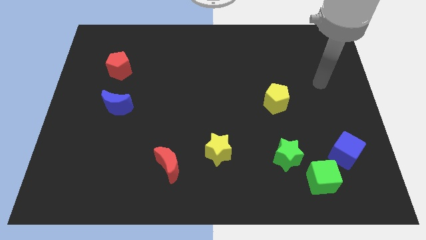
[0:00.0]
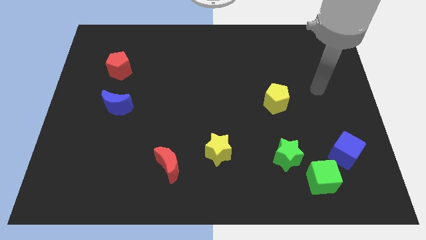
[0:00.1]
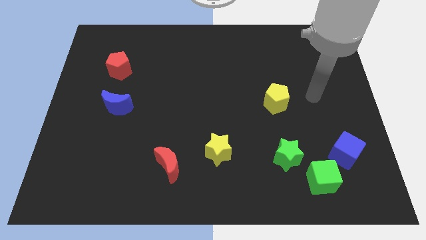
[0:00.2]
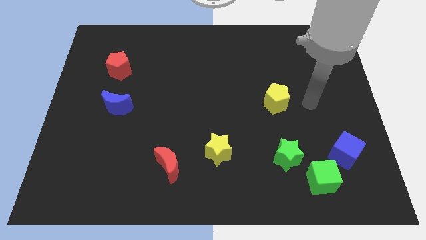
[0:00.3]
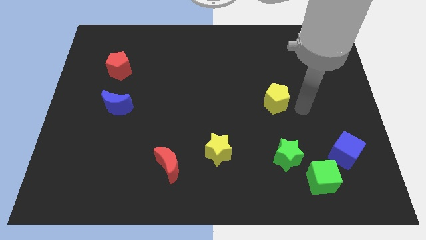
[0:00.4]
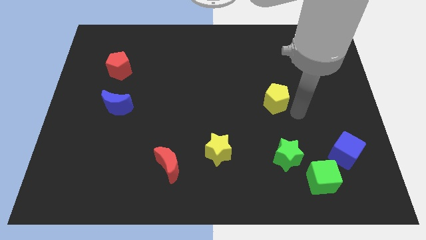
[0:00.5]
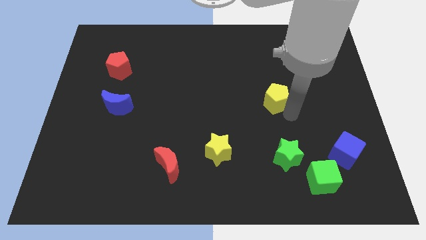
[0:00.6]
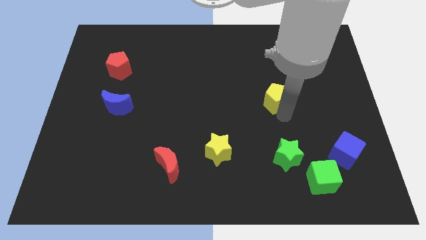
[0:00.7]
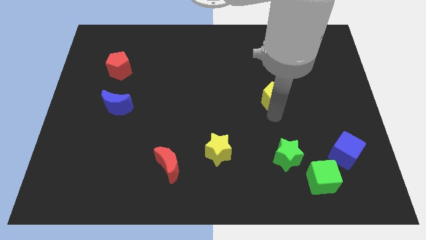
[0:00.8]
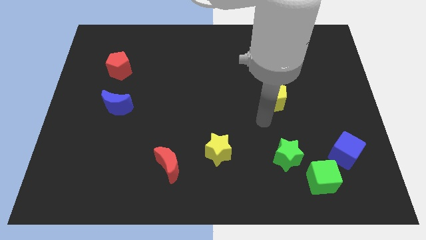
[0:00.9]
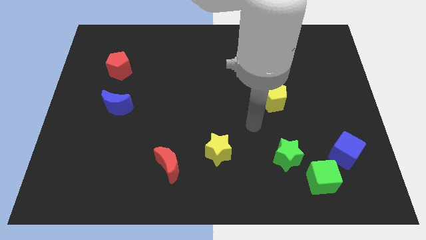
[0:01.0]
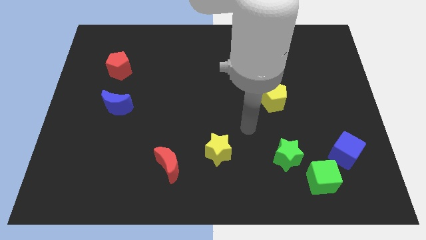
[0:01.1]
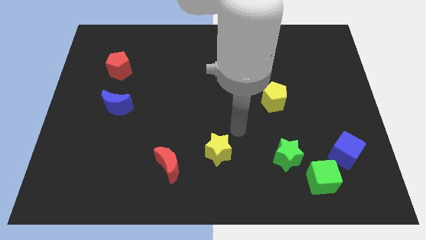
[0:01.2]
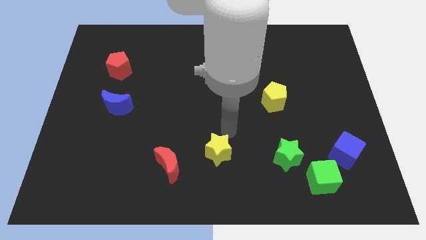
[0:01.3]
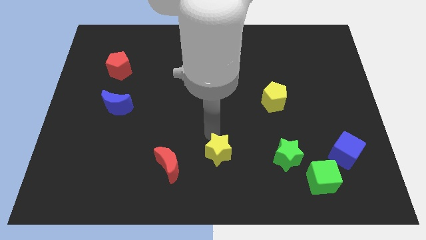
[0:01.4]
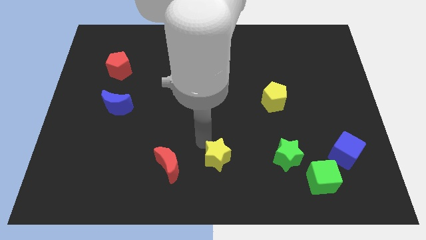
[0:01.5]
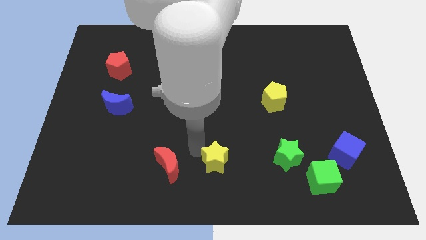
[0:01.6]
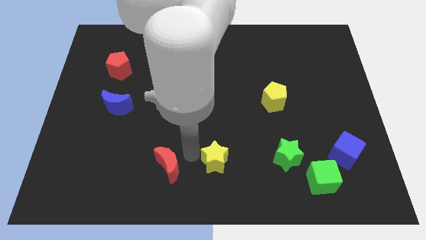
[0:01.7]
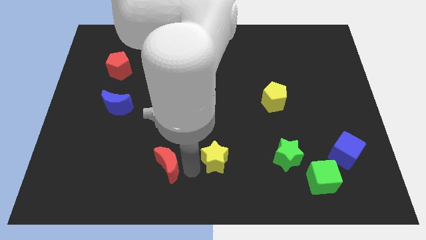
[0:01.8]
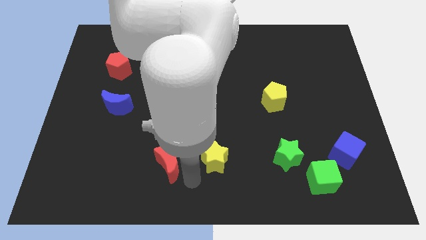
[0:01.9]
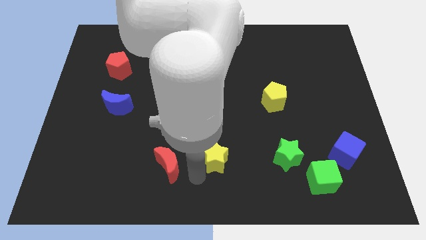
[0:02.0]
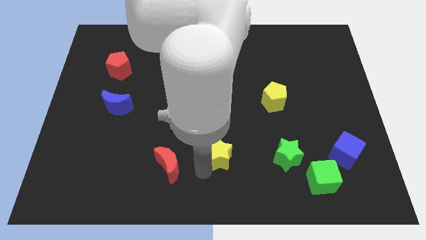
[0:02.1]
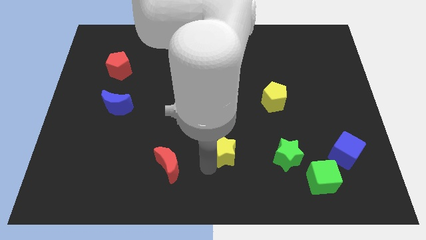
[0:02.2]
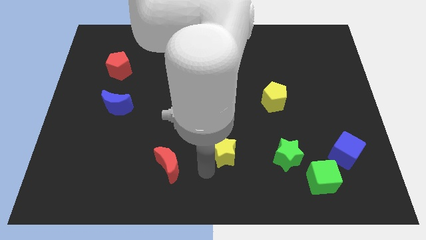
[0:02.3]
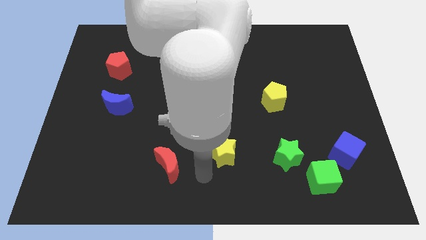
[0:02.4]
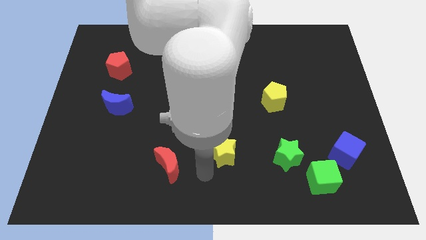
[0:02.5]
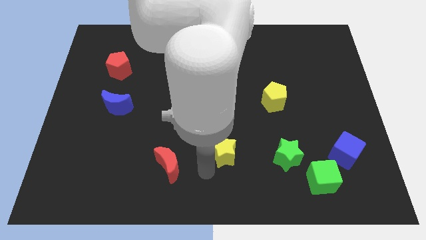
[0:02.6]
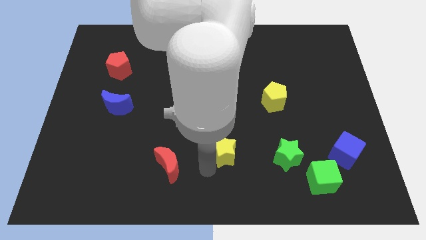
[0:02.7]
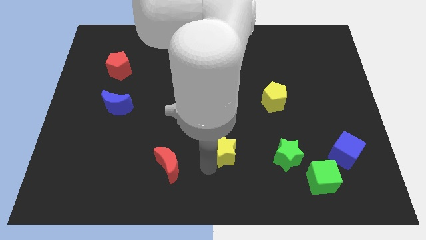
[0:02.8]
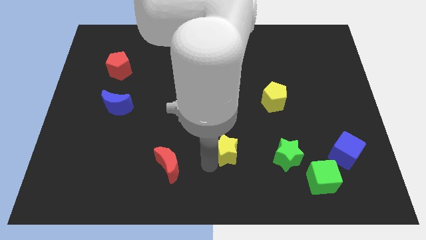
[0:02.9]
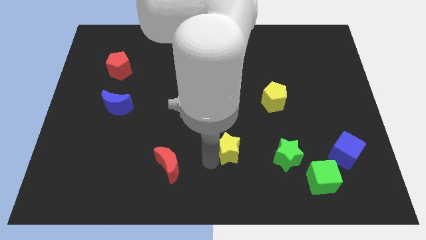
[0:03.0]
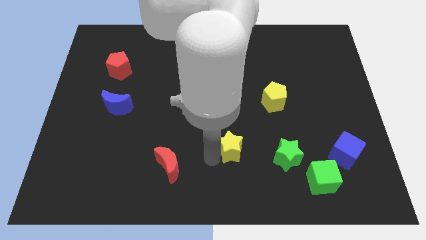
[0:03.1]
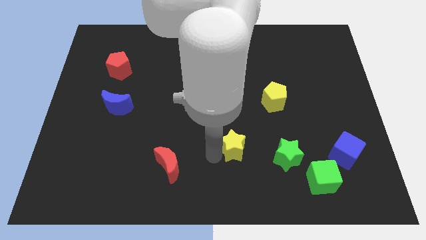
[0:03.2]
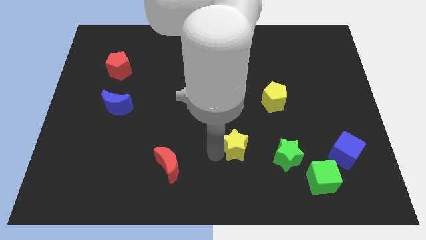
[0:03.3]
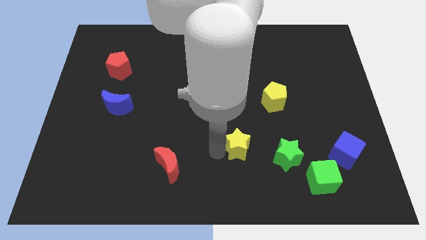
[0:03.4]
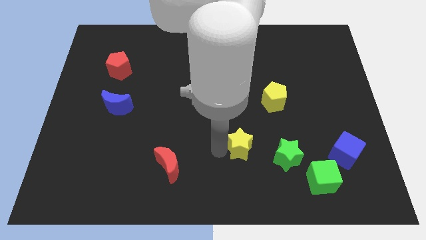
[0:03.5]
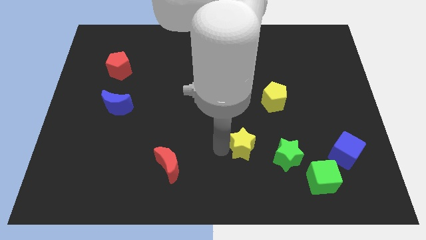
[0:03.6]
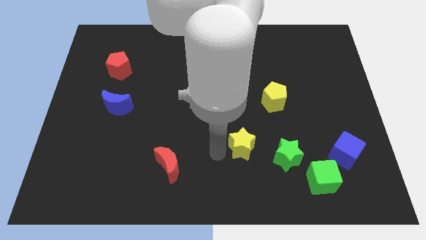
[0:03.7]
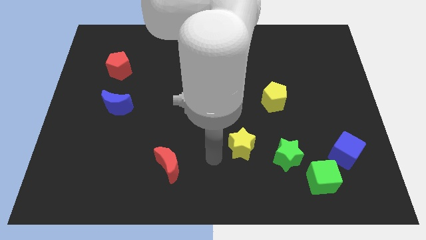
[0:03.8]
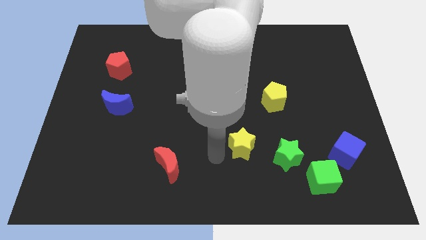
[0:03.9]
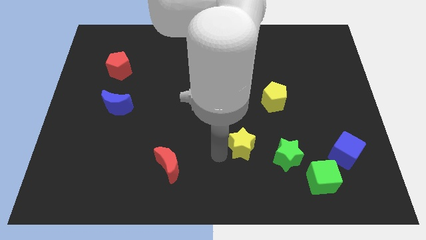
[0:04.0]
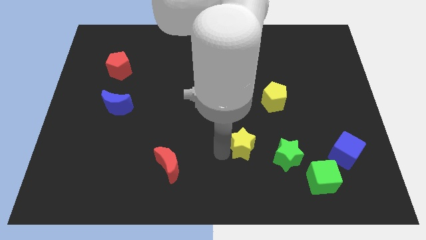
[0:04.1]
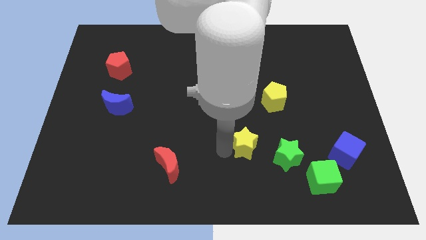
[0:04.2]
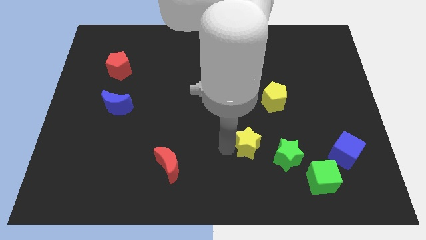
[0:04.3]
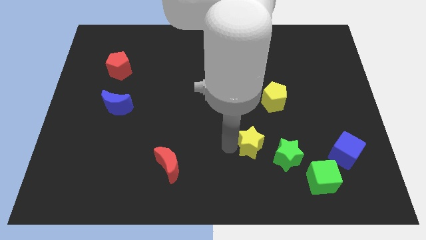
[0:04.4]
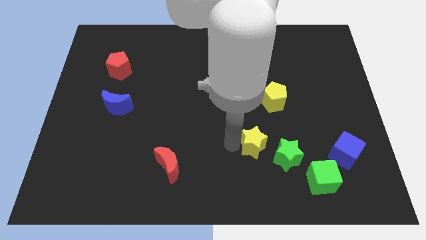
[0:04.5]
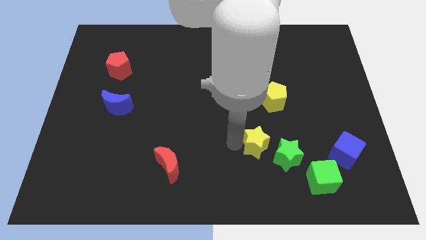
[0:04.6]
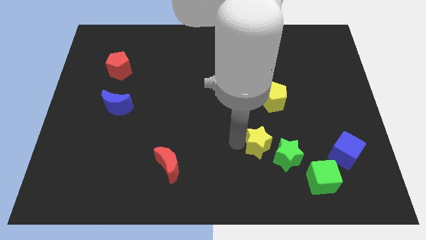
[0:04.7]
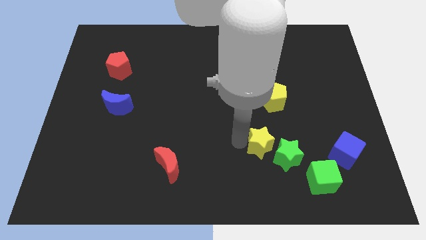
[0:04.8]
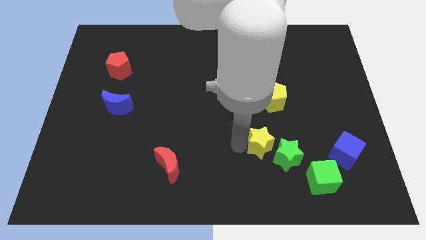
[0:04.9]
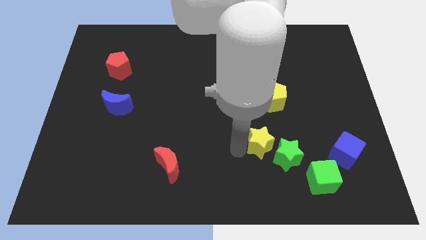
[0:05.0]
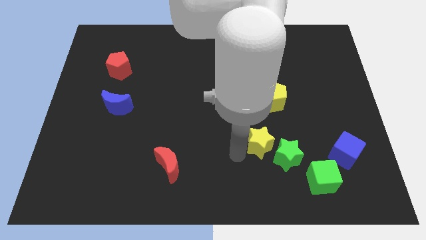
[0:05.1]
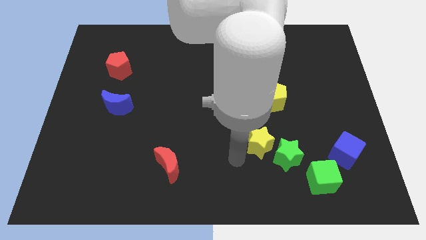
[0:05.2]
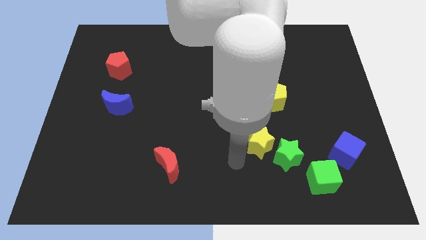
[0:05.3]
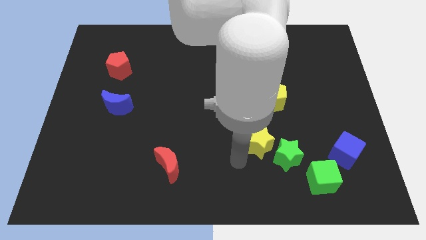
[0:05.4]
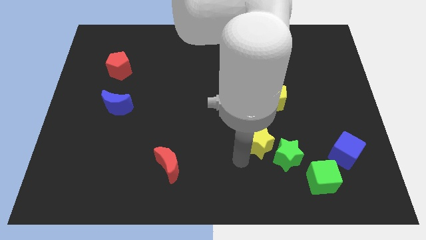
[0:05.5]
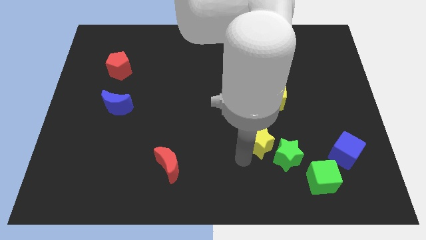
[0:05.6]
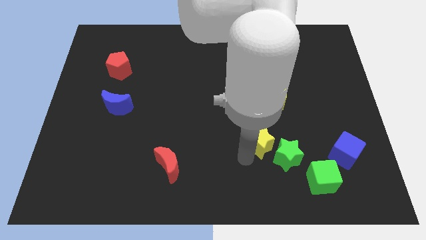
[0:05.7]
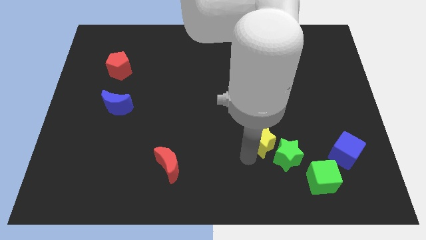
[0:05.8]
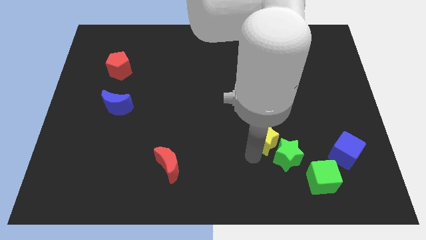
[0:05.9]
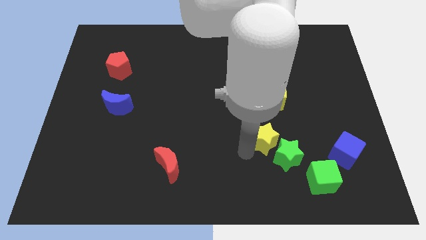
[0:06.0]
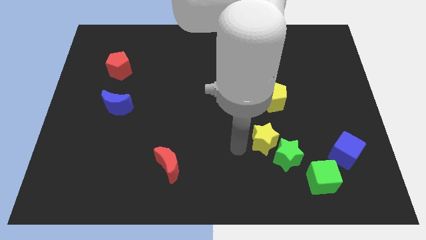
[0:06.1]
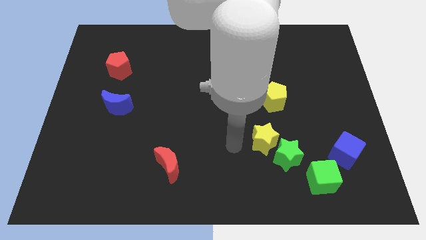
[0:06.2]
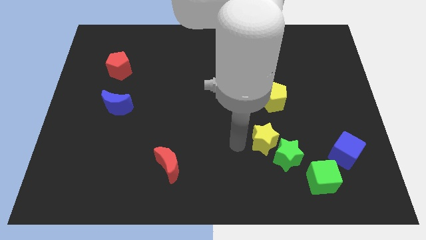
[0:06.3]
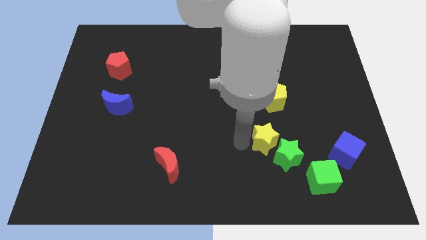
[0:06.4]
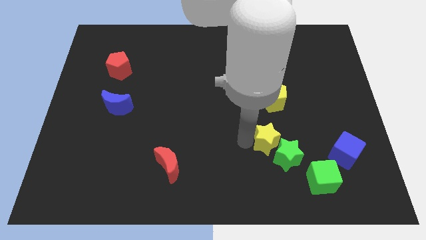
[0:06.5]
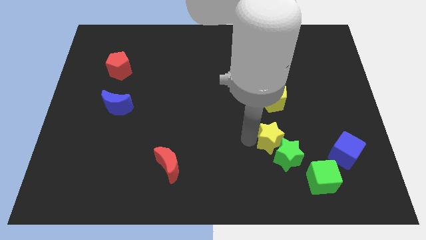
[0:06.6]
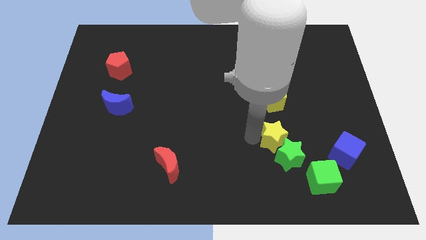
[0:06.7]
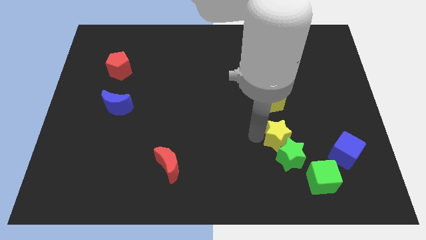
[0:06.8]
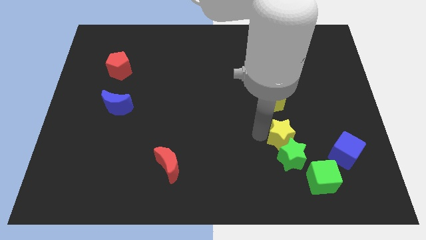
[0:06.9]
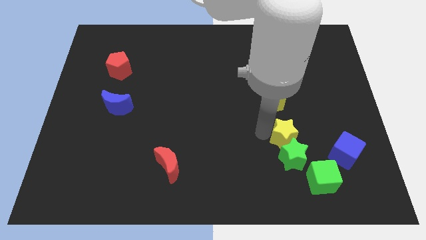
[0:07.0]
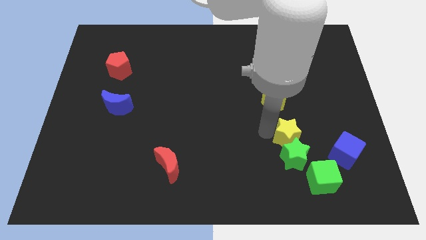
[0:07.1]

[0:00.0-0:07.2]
slide the yellow star to the top right of the green star

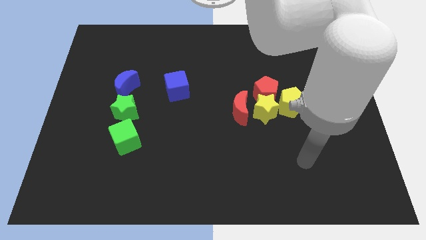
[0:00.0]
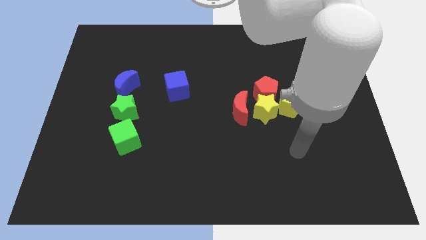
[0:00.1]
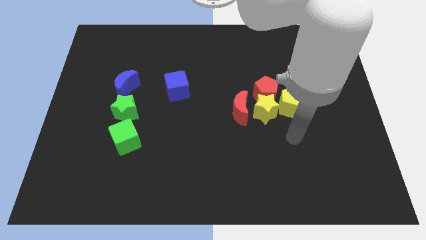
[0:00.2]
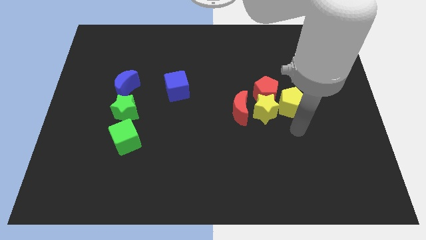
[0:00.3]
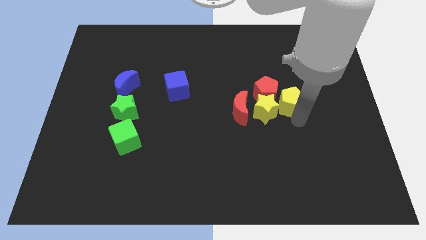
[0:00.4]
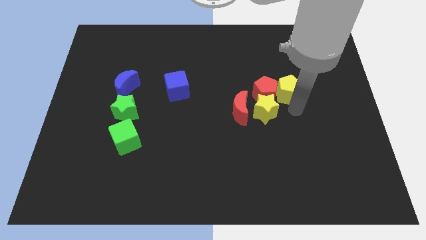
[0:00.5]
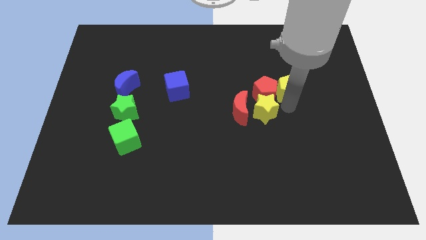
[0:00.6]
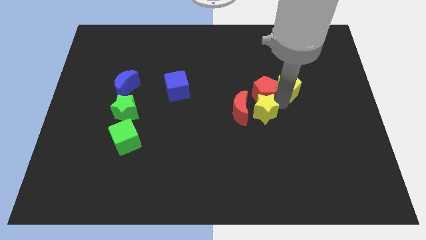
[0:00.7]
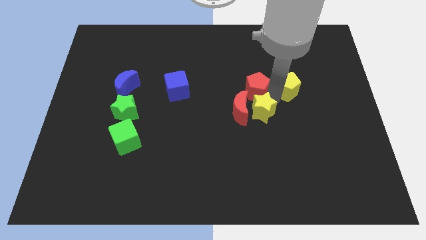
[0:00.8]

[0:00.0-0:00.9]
put the red pentagon to the top of the red moon
